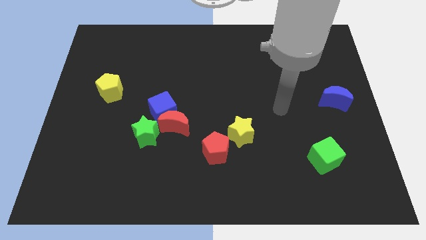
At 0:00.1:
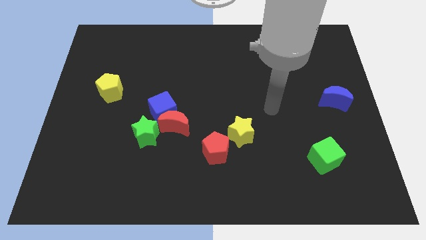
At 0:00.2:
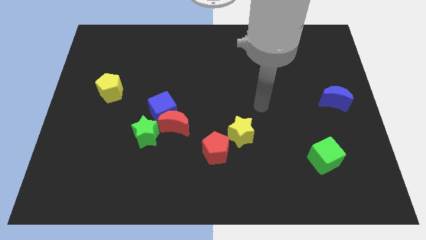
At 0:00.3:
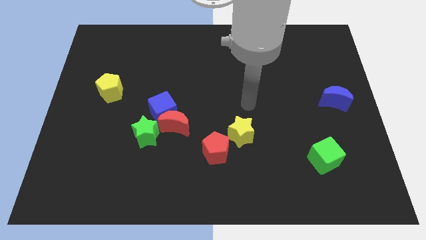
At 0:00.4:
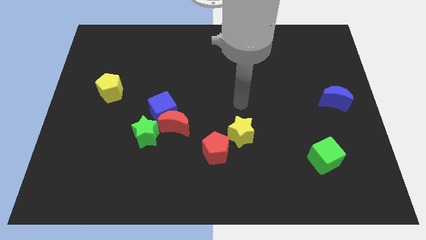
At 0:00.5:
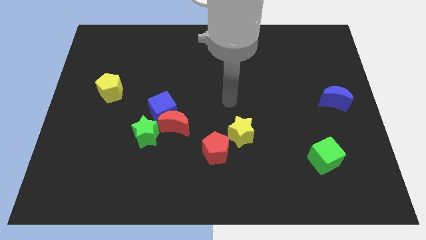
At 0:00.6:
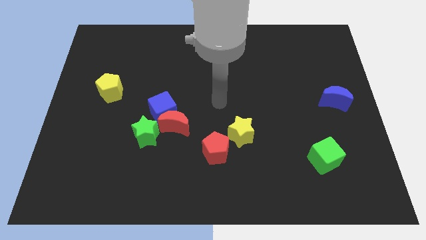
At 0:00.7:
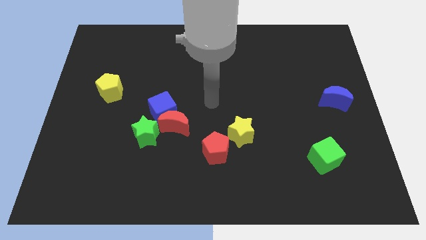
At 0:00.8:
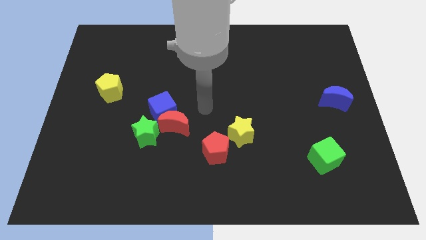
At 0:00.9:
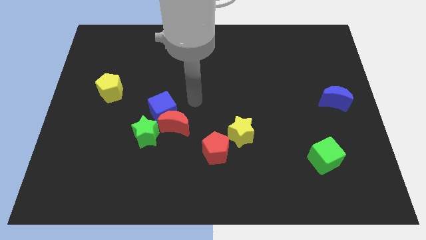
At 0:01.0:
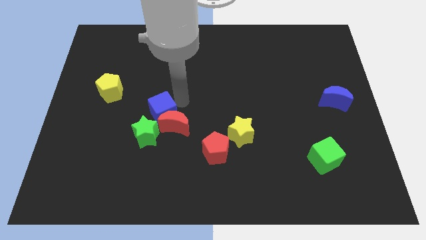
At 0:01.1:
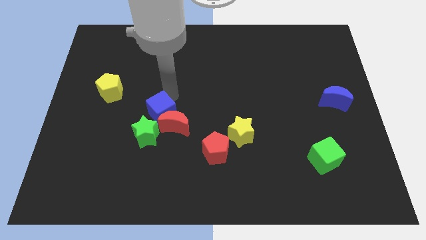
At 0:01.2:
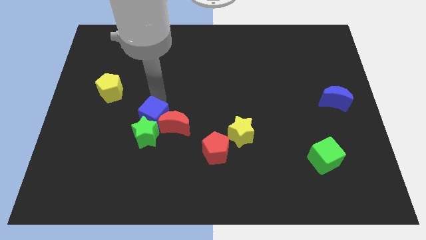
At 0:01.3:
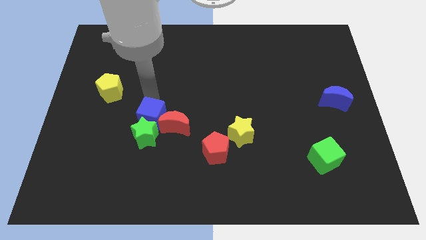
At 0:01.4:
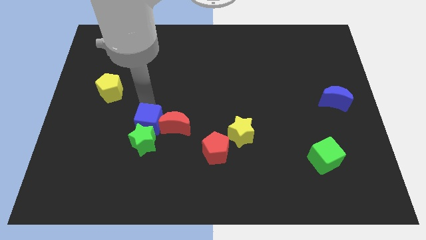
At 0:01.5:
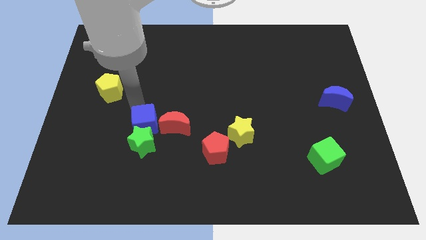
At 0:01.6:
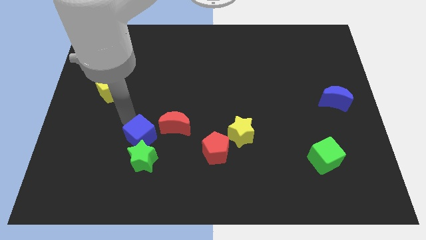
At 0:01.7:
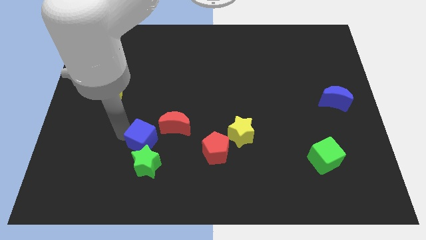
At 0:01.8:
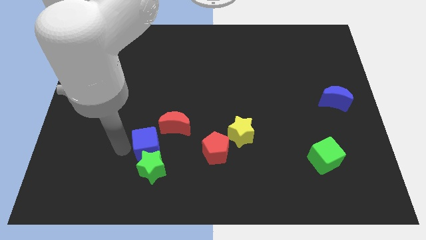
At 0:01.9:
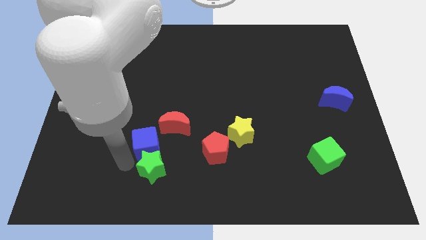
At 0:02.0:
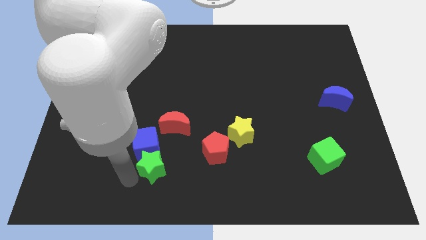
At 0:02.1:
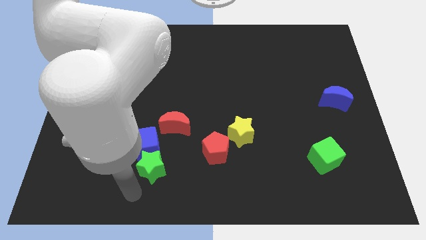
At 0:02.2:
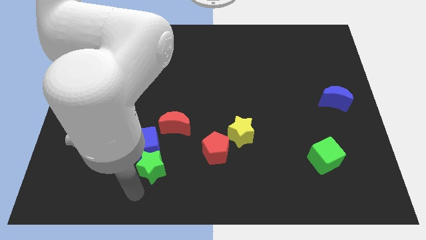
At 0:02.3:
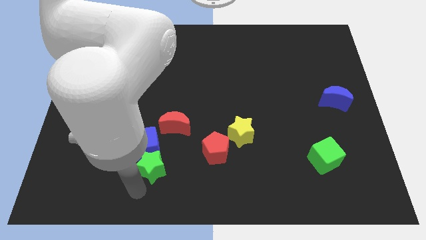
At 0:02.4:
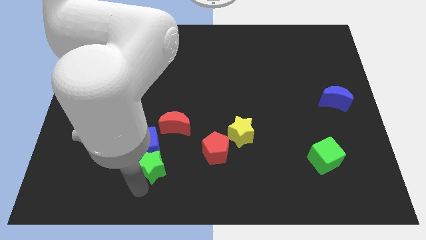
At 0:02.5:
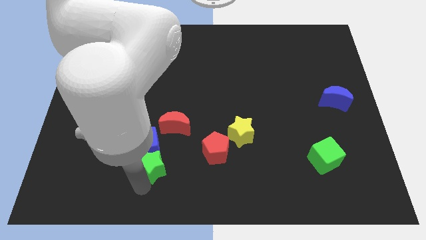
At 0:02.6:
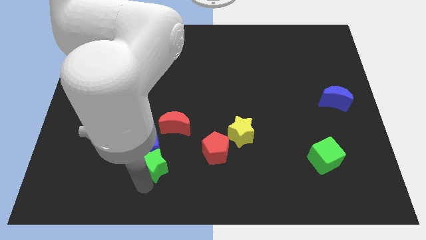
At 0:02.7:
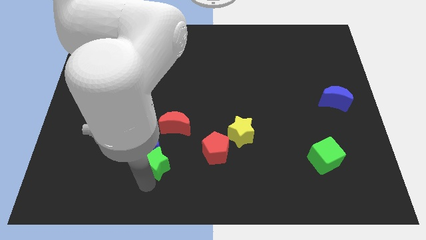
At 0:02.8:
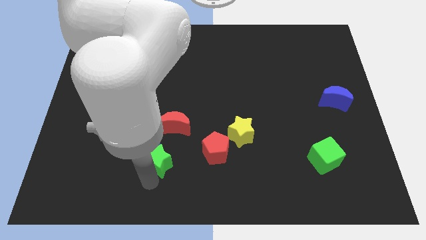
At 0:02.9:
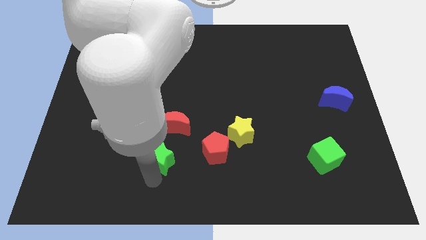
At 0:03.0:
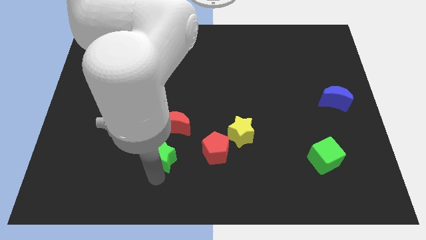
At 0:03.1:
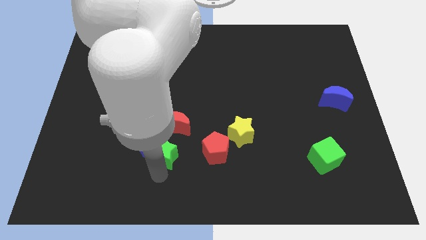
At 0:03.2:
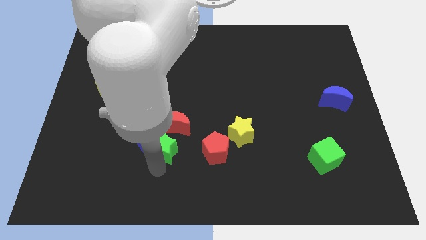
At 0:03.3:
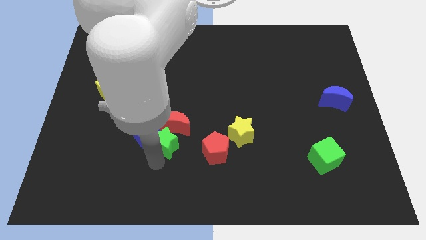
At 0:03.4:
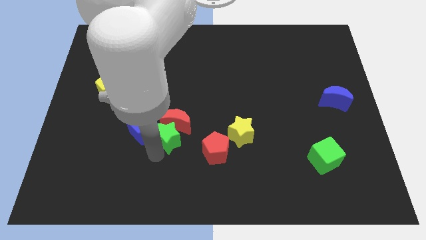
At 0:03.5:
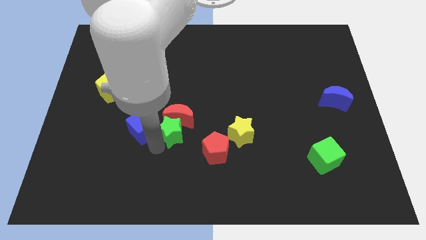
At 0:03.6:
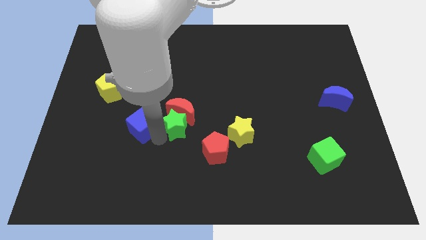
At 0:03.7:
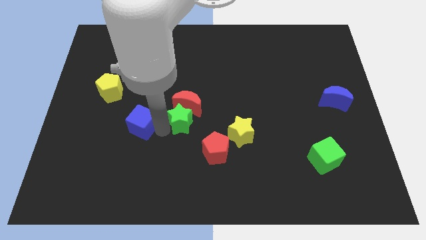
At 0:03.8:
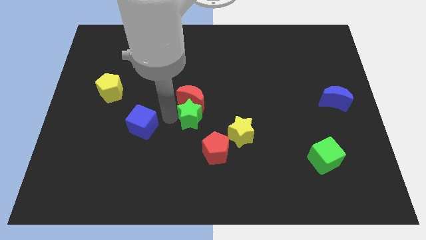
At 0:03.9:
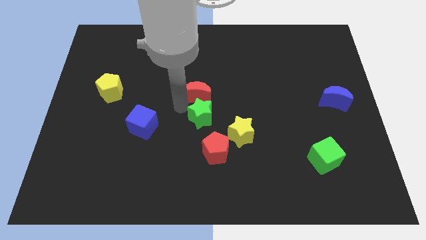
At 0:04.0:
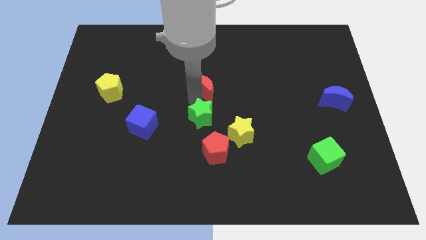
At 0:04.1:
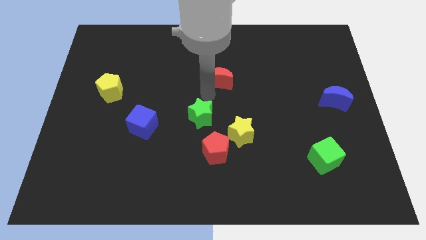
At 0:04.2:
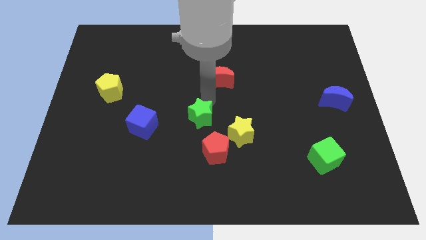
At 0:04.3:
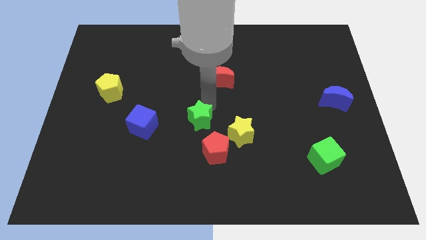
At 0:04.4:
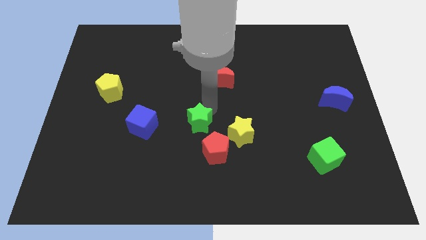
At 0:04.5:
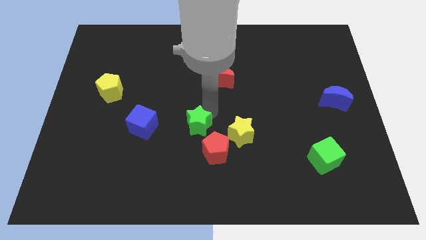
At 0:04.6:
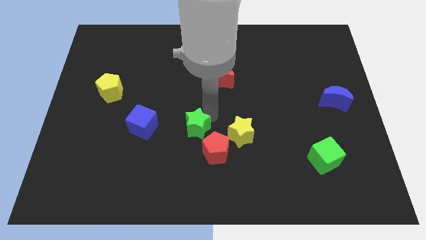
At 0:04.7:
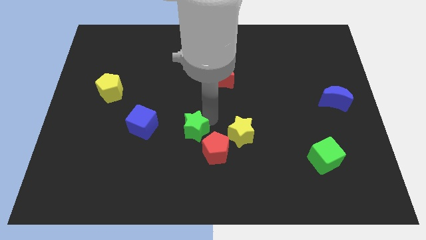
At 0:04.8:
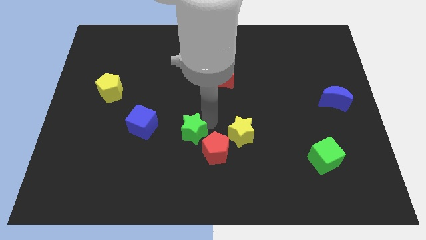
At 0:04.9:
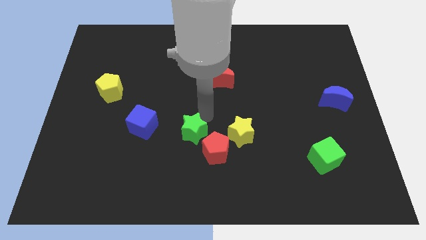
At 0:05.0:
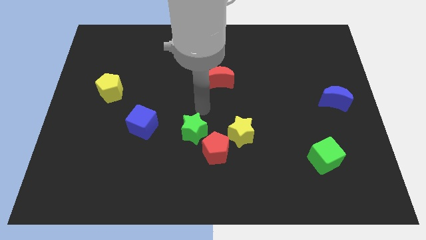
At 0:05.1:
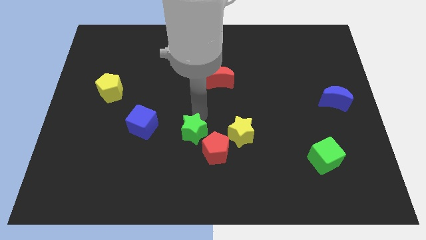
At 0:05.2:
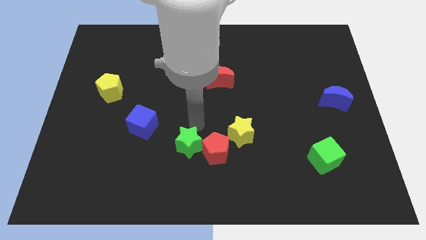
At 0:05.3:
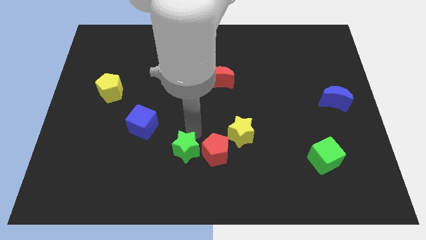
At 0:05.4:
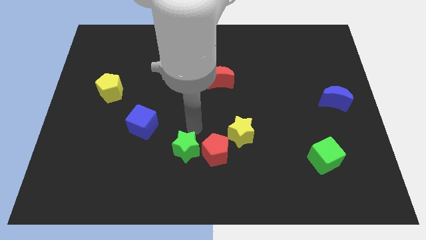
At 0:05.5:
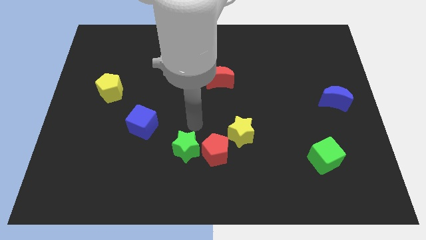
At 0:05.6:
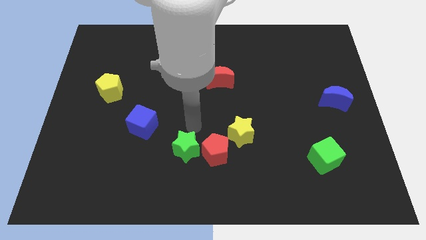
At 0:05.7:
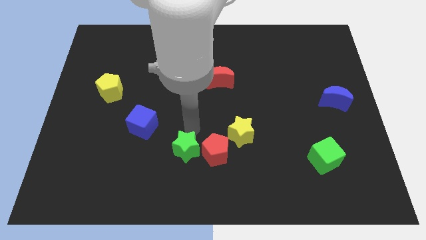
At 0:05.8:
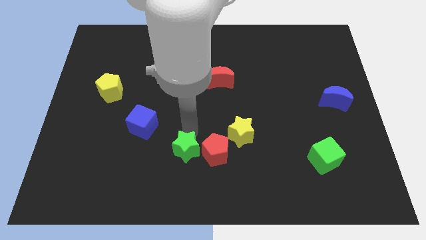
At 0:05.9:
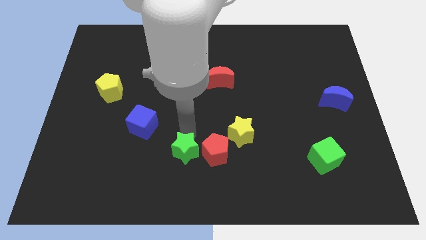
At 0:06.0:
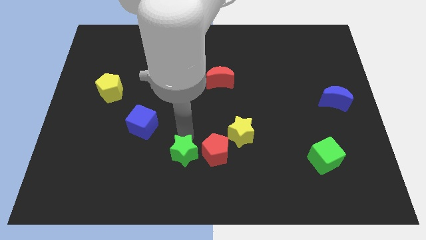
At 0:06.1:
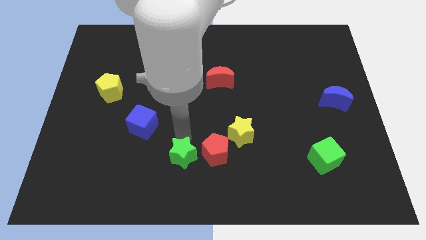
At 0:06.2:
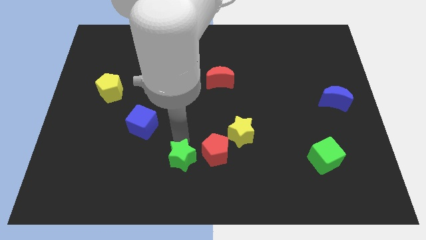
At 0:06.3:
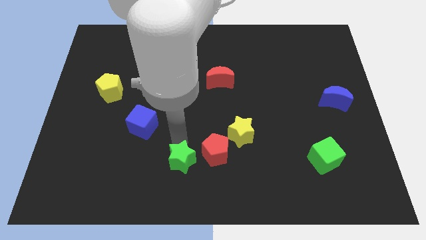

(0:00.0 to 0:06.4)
slide the green star to the bottom
